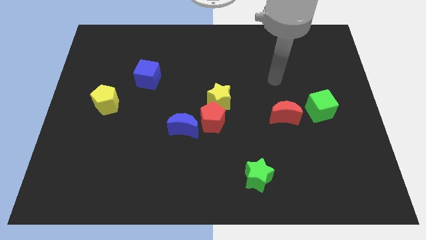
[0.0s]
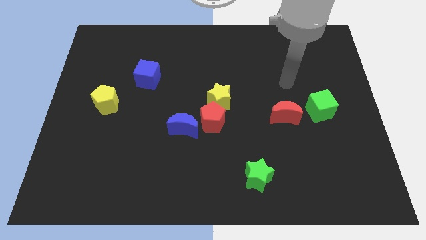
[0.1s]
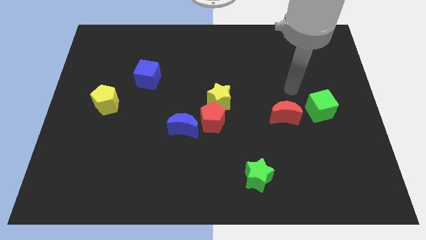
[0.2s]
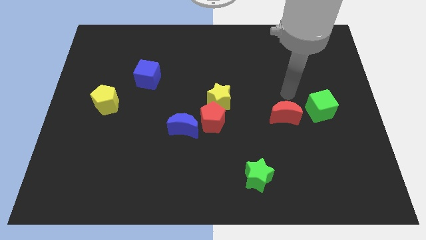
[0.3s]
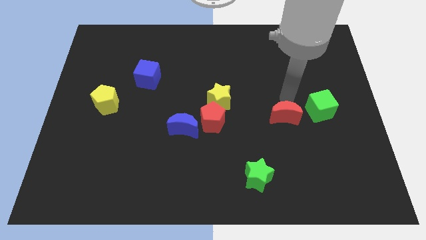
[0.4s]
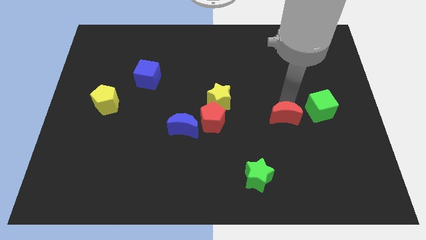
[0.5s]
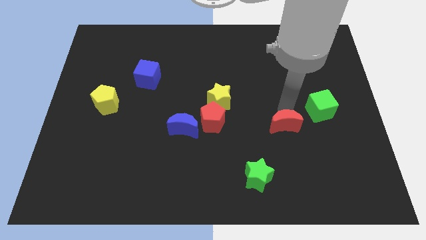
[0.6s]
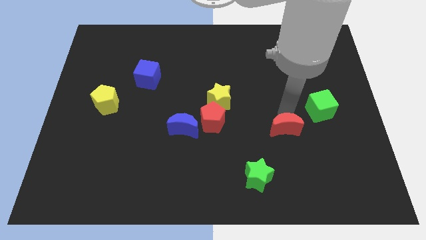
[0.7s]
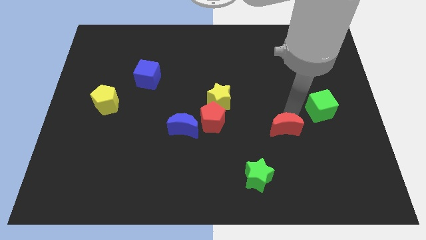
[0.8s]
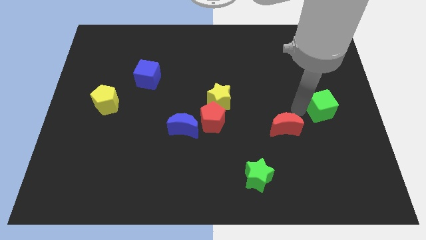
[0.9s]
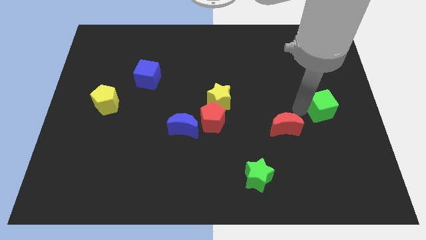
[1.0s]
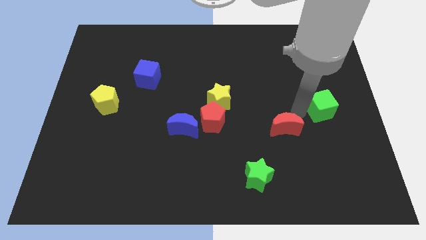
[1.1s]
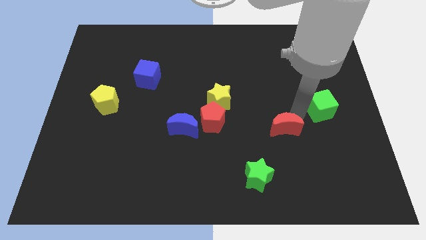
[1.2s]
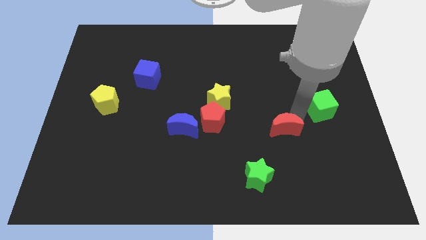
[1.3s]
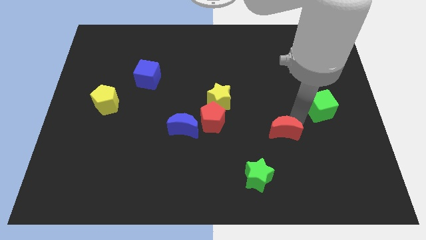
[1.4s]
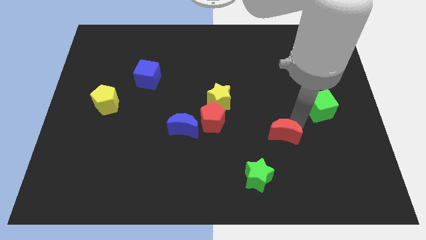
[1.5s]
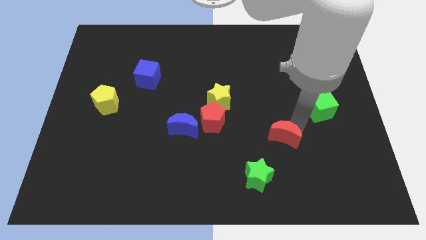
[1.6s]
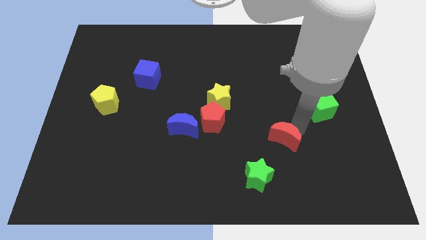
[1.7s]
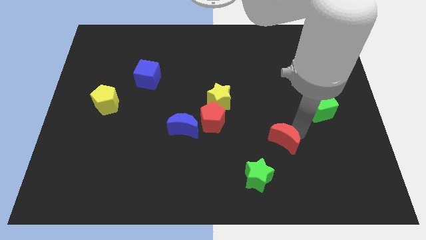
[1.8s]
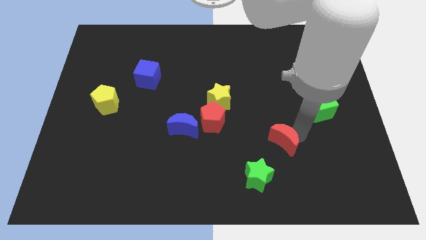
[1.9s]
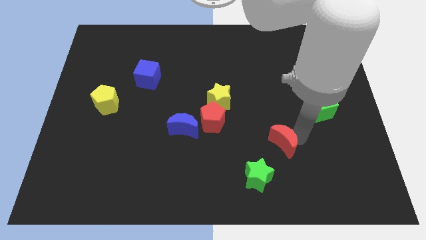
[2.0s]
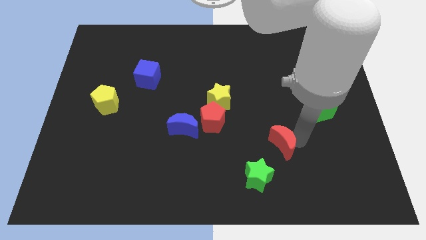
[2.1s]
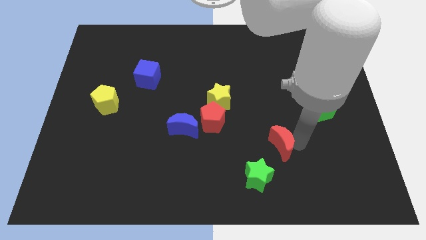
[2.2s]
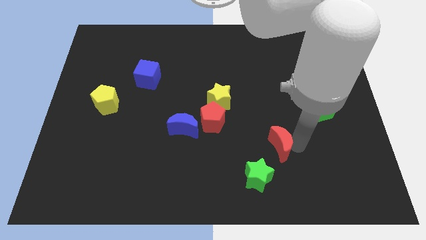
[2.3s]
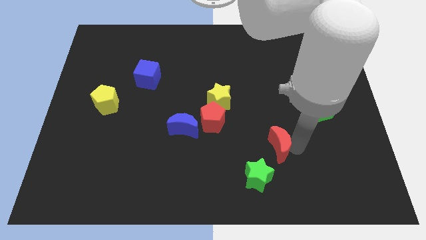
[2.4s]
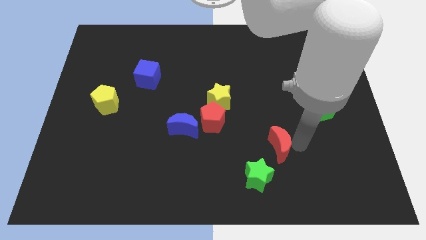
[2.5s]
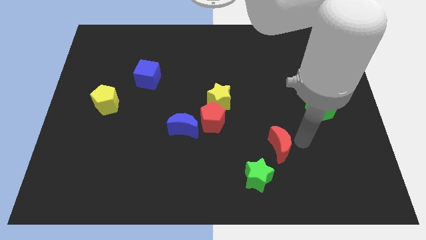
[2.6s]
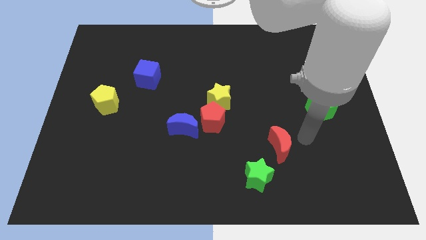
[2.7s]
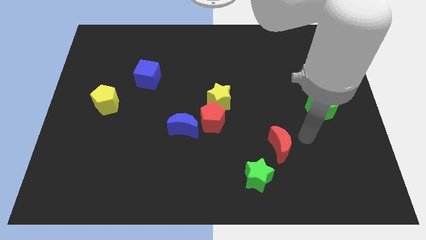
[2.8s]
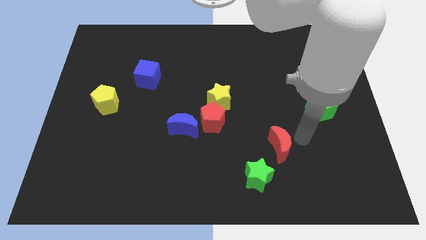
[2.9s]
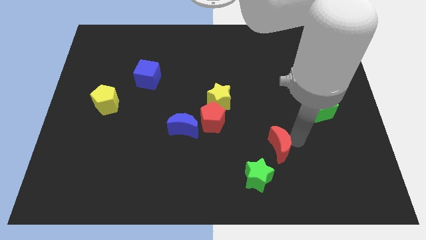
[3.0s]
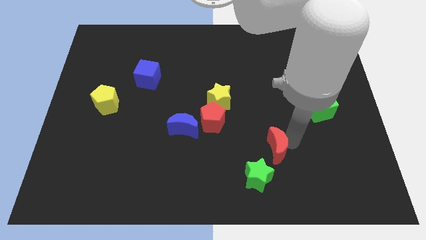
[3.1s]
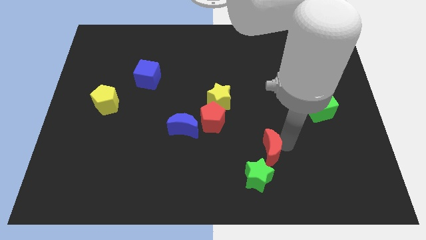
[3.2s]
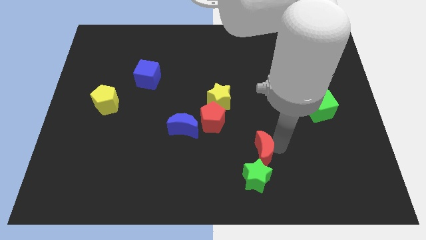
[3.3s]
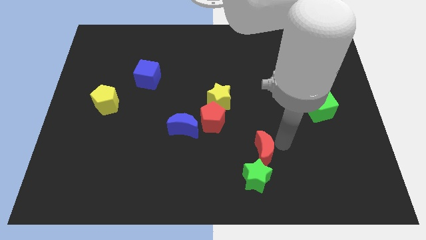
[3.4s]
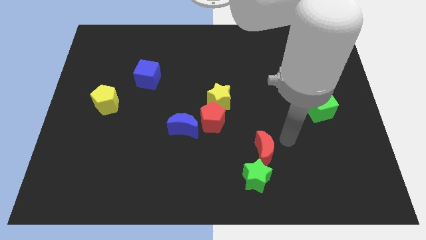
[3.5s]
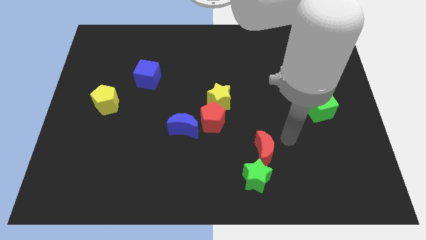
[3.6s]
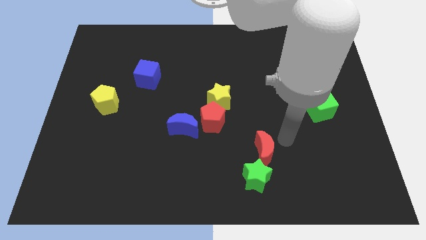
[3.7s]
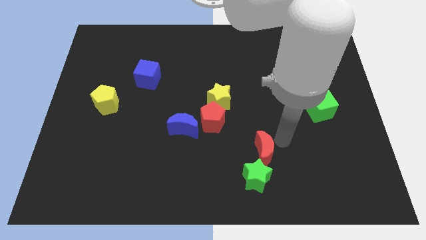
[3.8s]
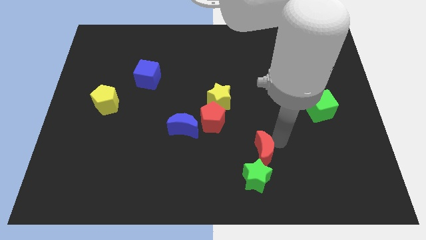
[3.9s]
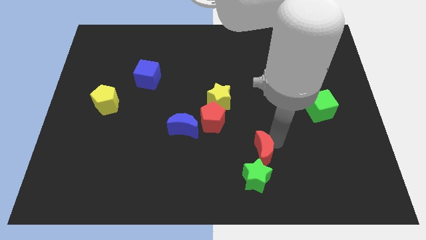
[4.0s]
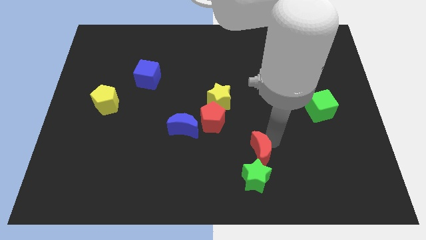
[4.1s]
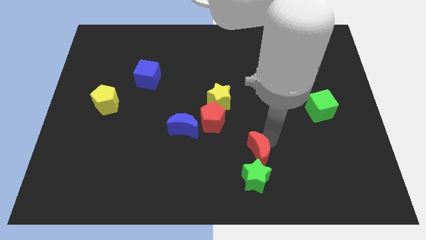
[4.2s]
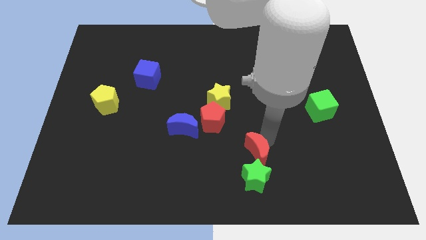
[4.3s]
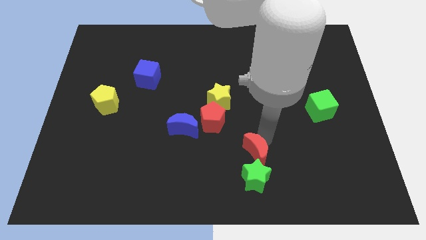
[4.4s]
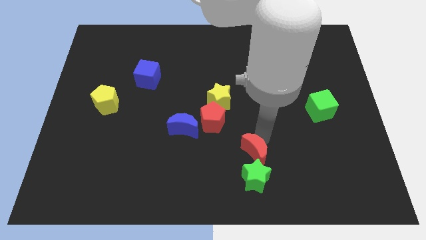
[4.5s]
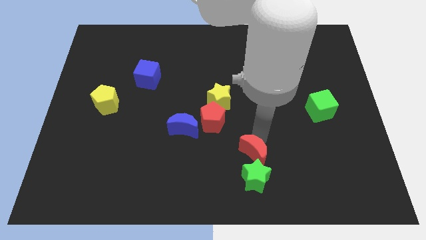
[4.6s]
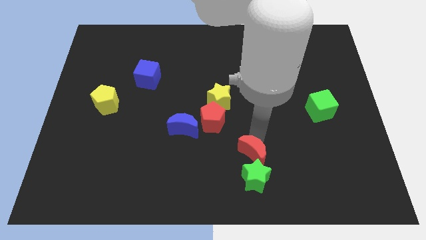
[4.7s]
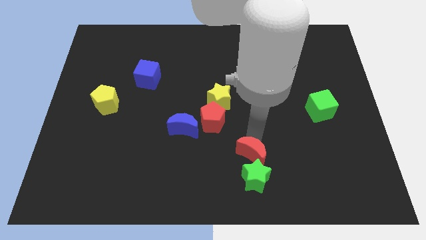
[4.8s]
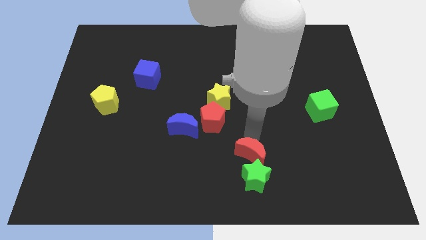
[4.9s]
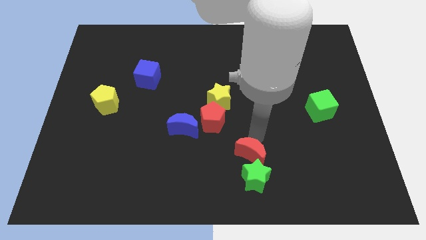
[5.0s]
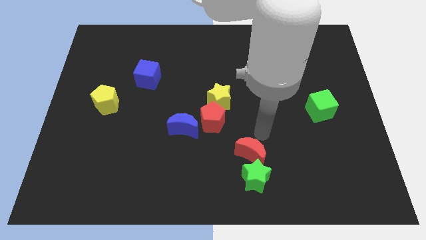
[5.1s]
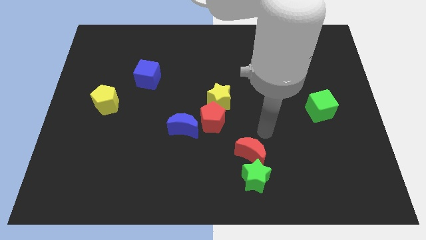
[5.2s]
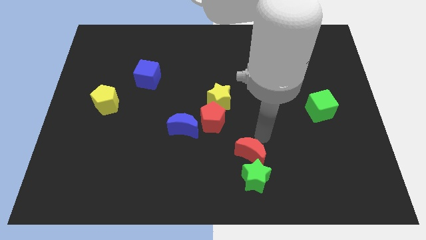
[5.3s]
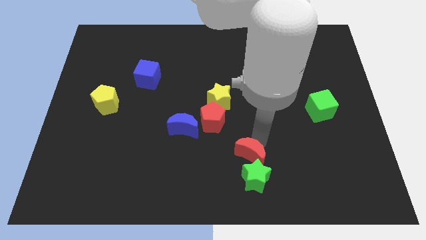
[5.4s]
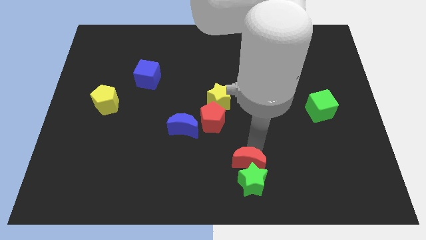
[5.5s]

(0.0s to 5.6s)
put the red moon to the bottom

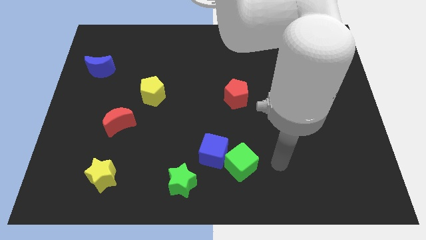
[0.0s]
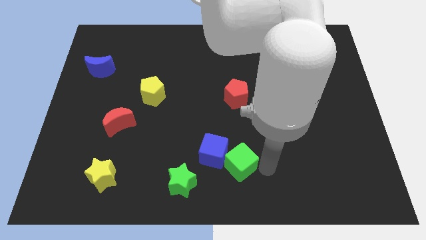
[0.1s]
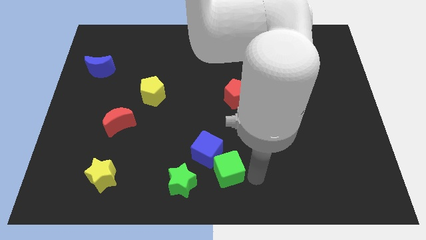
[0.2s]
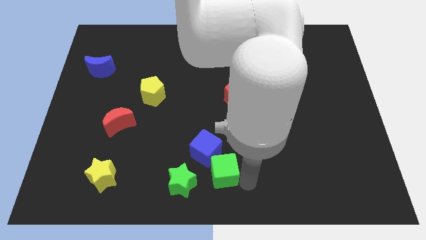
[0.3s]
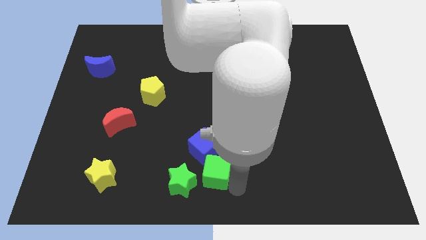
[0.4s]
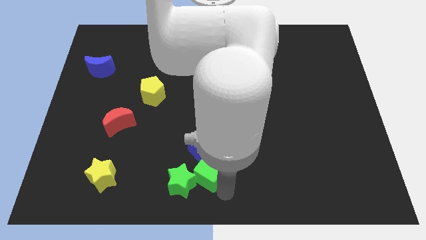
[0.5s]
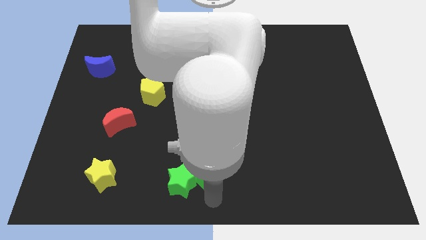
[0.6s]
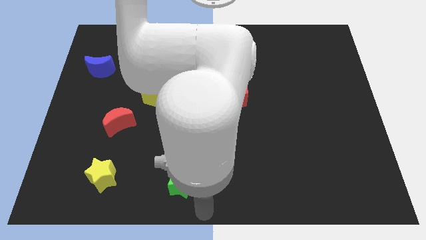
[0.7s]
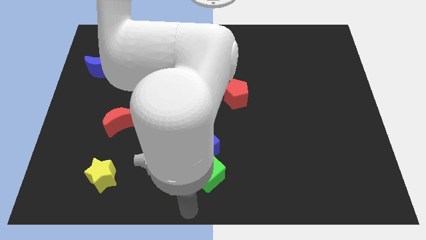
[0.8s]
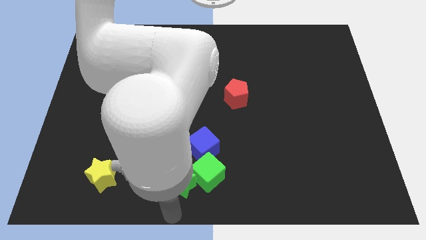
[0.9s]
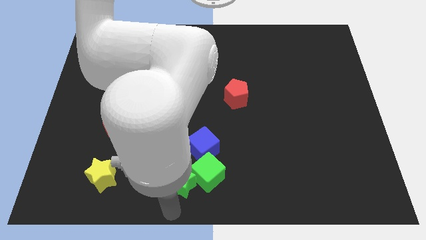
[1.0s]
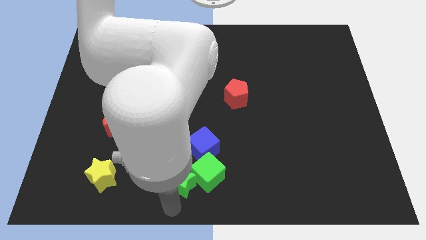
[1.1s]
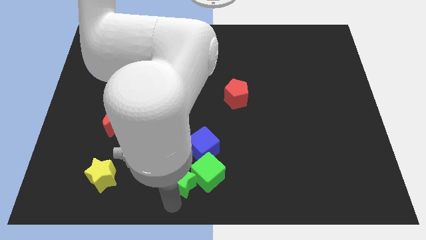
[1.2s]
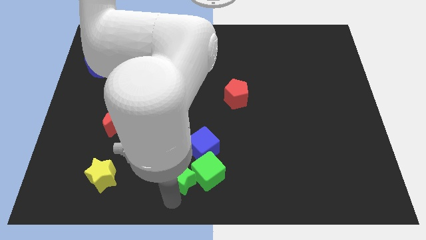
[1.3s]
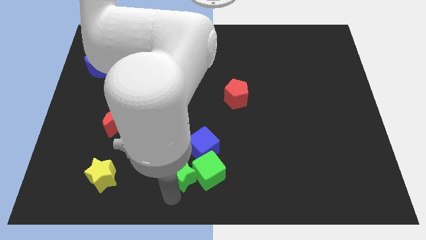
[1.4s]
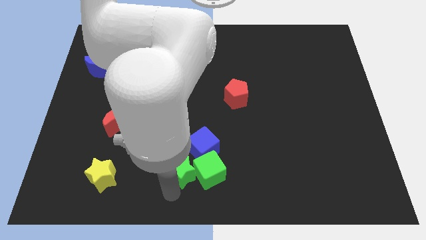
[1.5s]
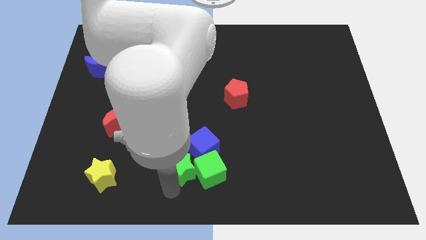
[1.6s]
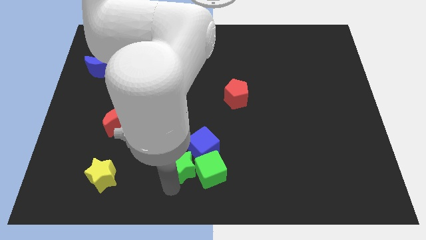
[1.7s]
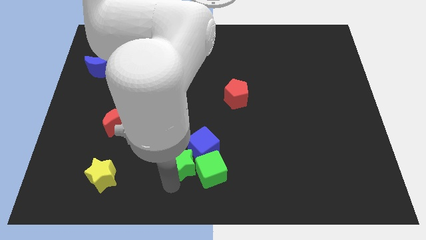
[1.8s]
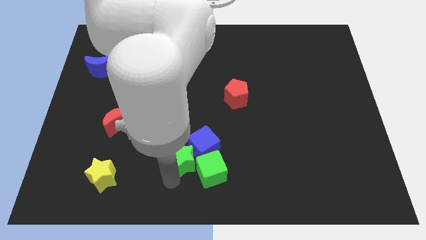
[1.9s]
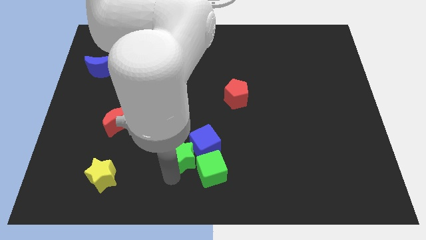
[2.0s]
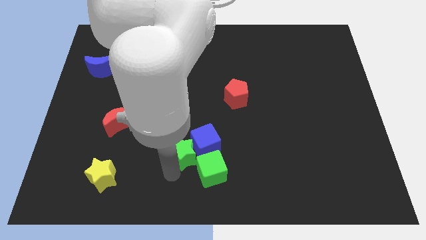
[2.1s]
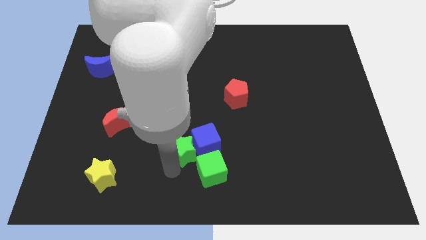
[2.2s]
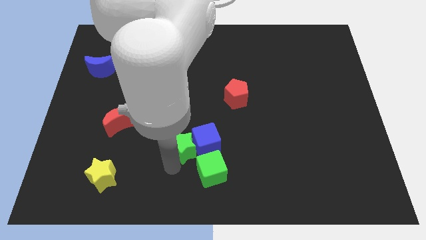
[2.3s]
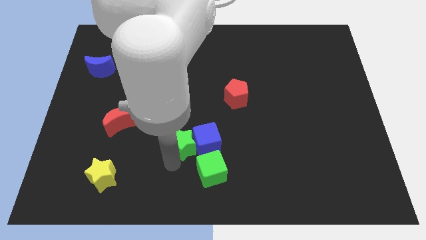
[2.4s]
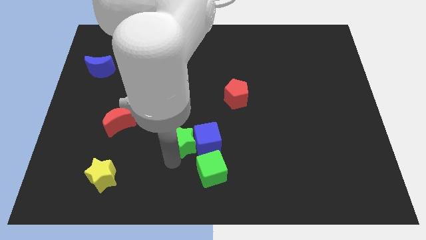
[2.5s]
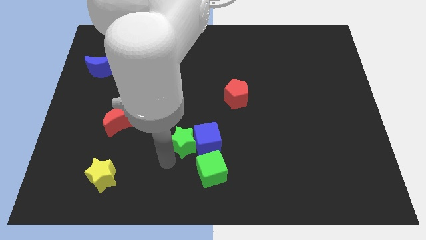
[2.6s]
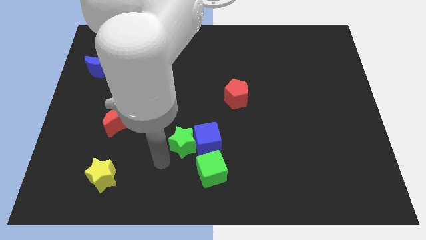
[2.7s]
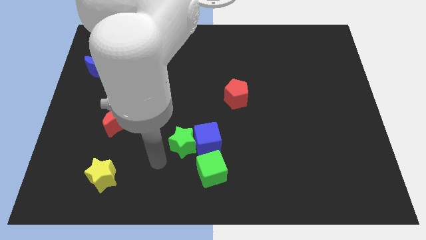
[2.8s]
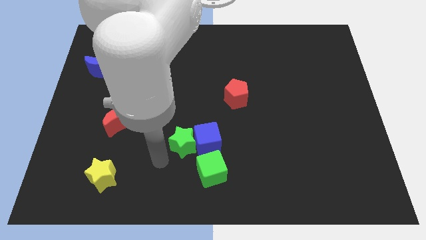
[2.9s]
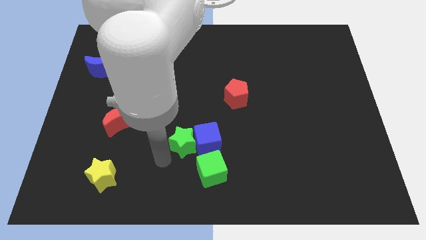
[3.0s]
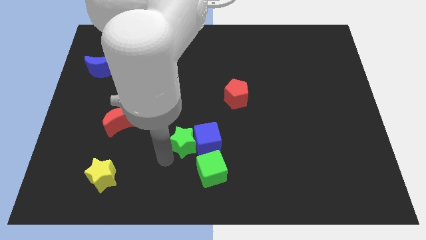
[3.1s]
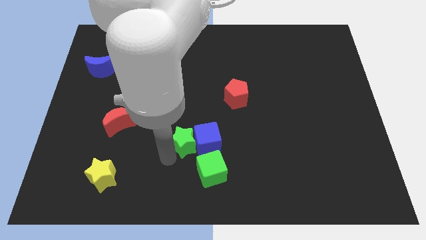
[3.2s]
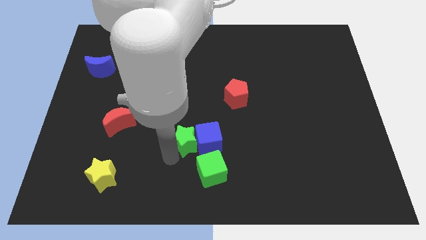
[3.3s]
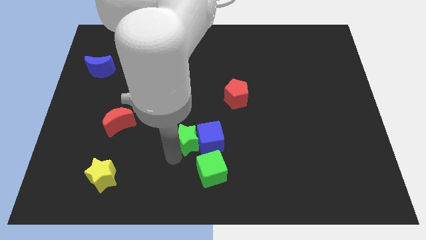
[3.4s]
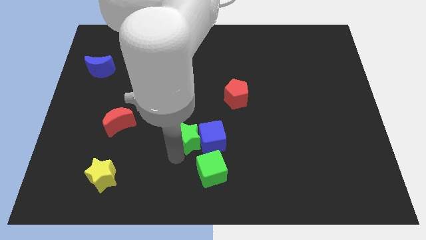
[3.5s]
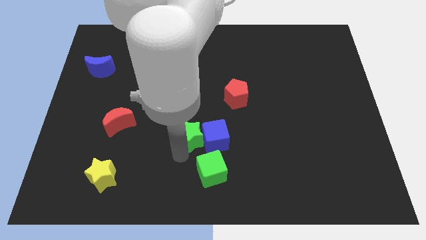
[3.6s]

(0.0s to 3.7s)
push the green star to the middle
